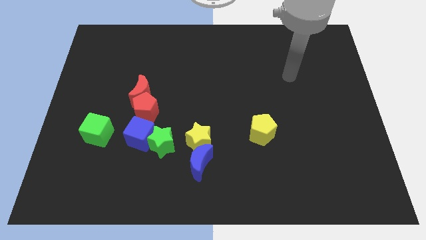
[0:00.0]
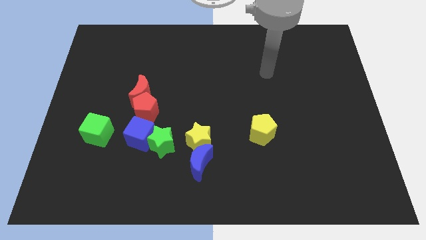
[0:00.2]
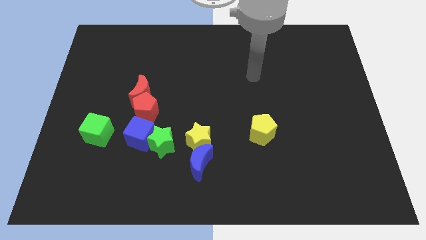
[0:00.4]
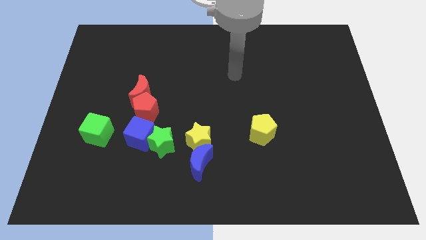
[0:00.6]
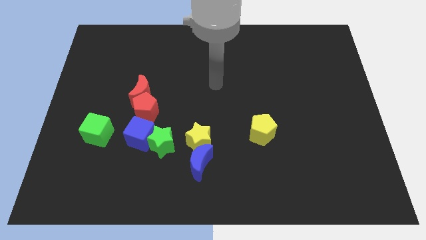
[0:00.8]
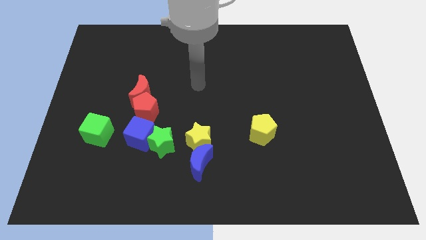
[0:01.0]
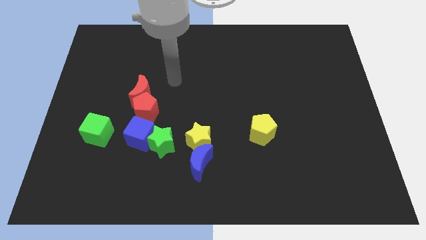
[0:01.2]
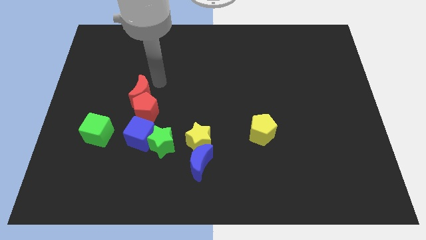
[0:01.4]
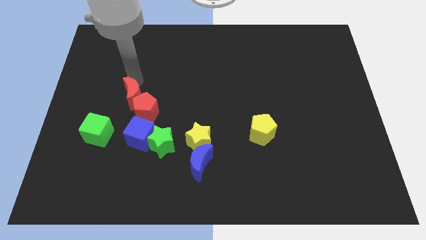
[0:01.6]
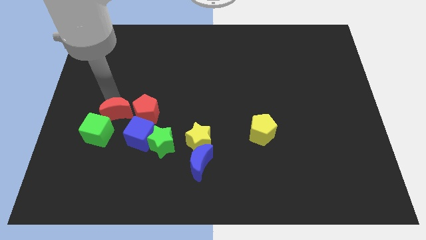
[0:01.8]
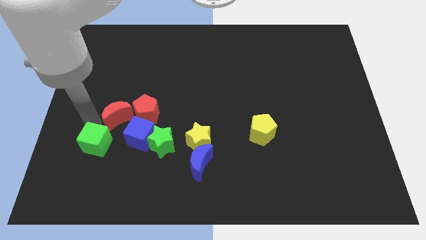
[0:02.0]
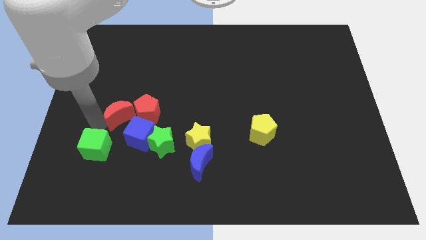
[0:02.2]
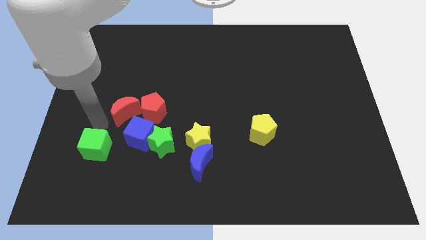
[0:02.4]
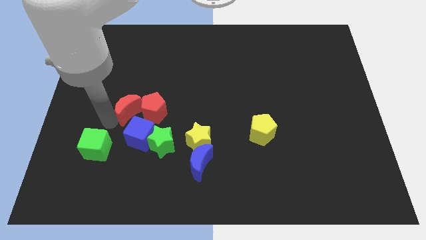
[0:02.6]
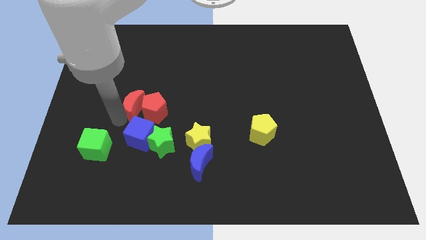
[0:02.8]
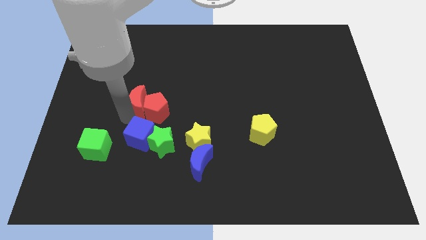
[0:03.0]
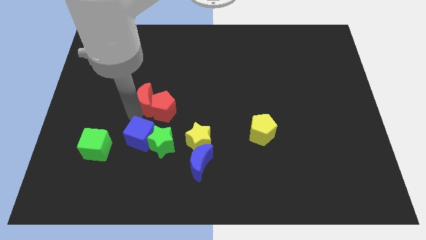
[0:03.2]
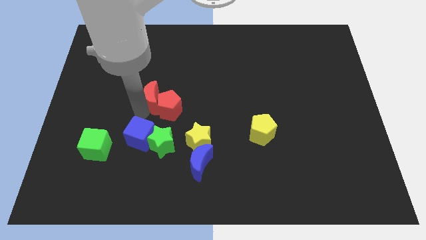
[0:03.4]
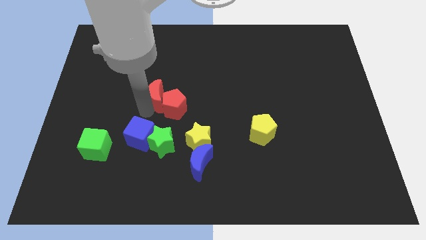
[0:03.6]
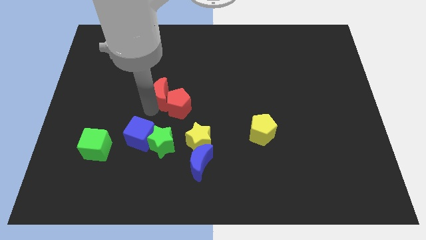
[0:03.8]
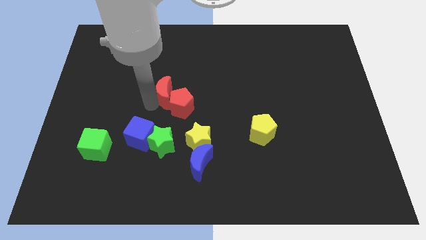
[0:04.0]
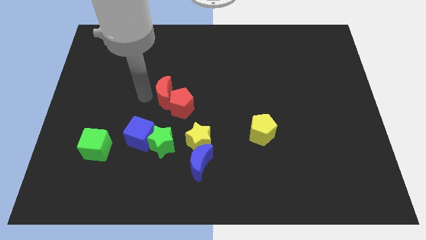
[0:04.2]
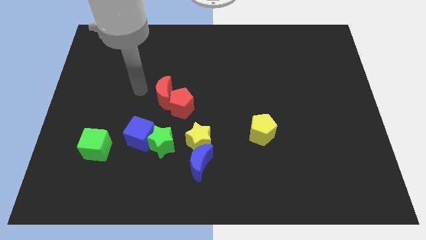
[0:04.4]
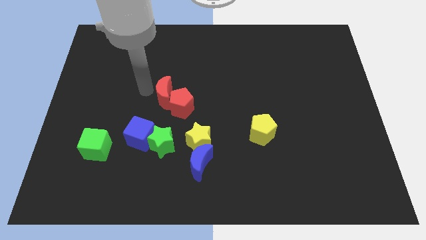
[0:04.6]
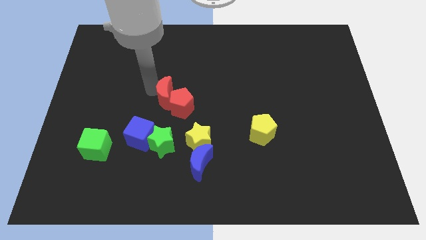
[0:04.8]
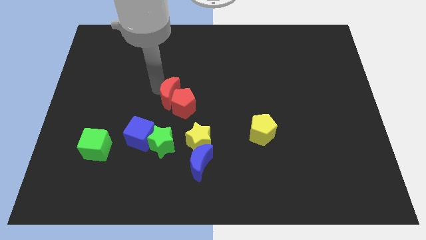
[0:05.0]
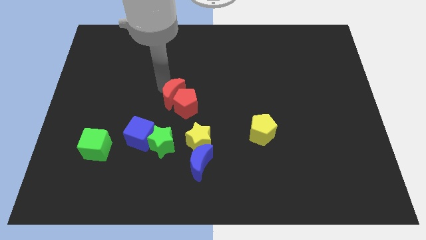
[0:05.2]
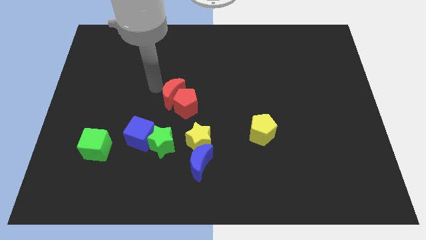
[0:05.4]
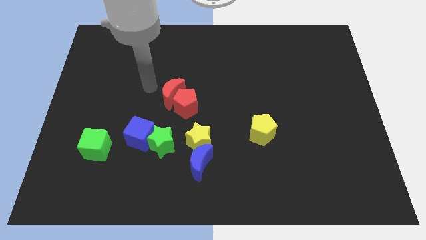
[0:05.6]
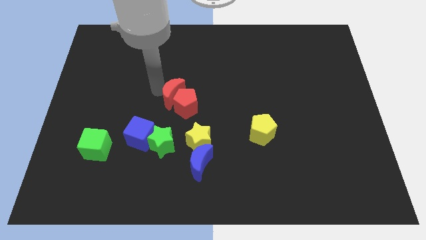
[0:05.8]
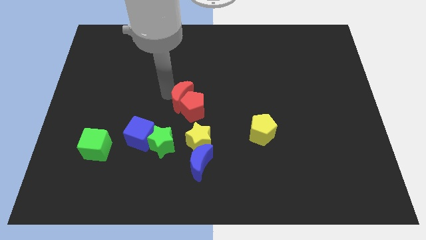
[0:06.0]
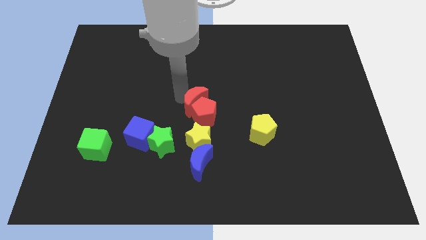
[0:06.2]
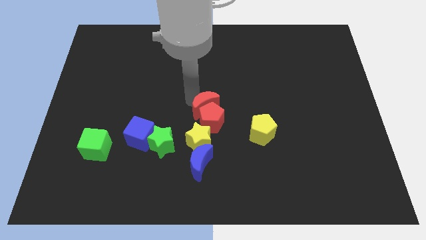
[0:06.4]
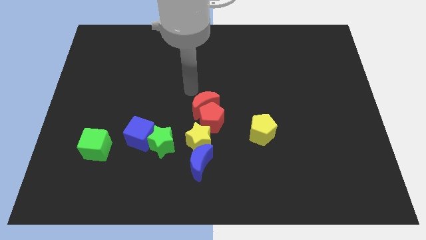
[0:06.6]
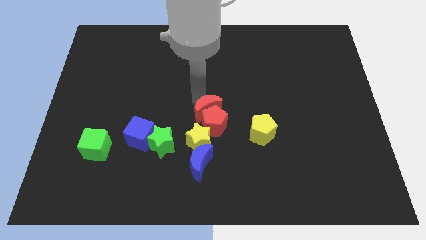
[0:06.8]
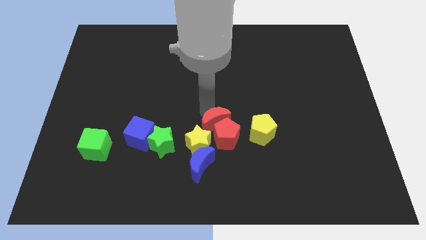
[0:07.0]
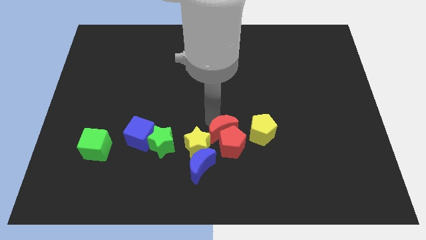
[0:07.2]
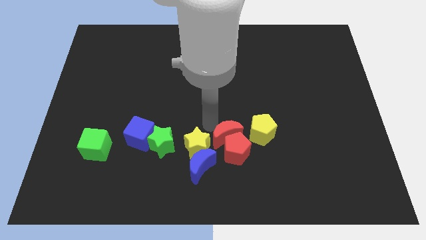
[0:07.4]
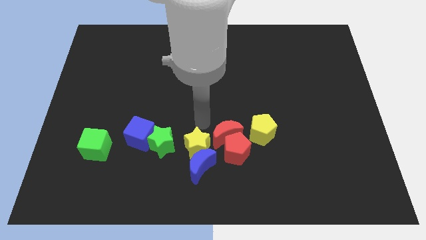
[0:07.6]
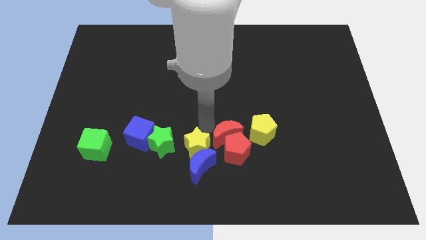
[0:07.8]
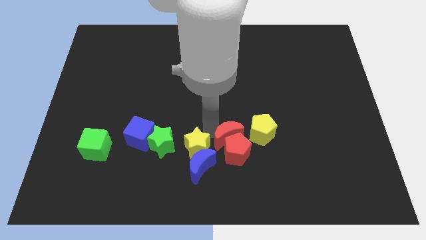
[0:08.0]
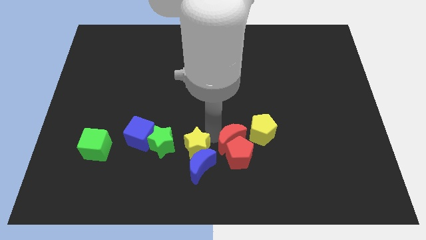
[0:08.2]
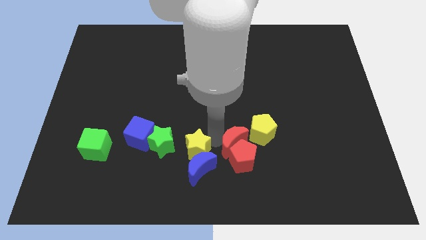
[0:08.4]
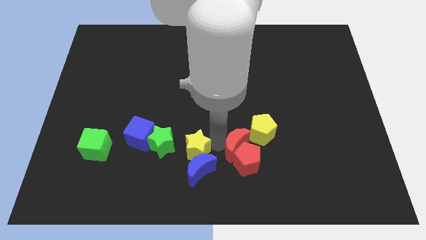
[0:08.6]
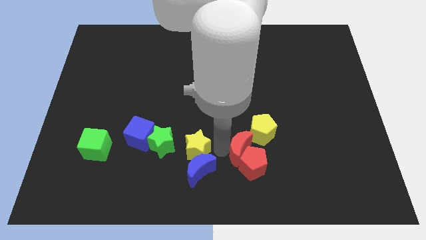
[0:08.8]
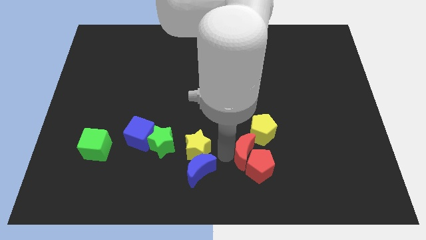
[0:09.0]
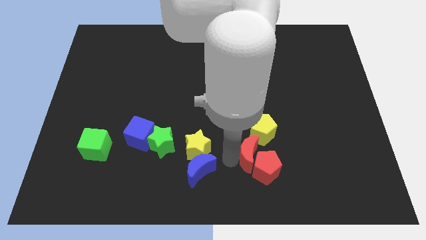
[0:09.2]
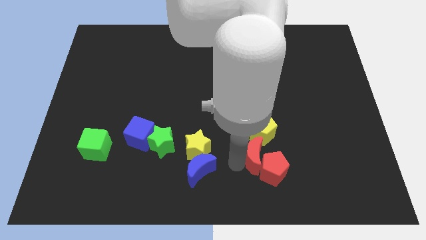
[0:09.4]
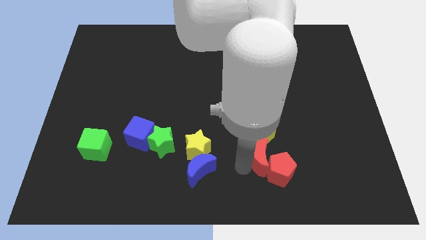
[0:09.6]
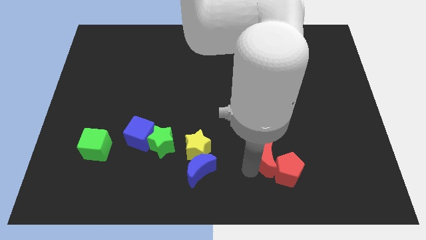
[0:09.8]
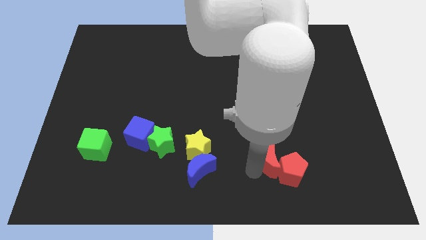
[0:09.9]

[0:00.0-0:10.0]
slide the red moon to the bottom right side of the yellow pentagon

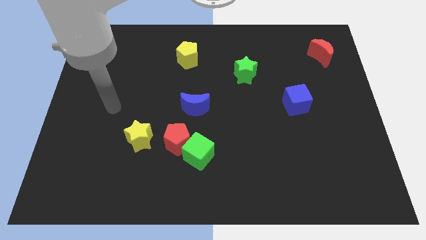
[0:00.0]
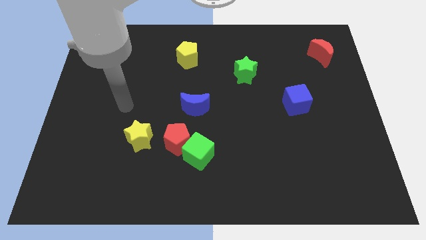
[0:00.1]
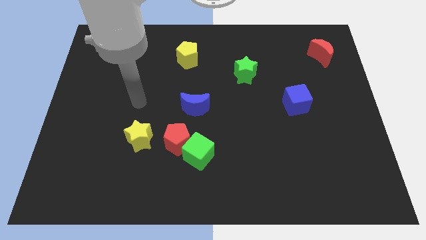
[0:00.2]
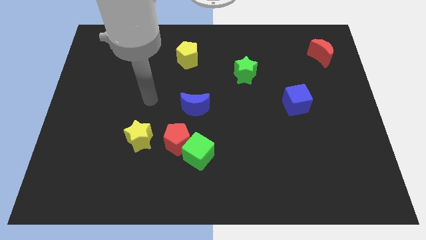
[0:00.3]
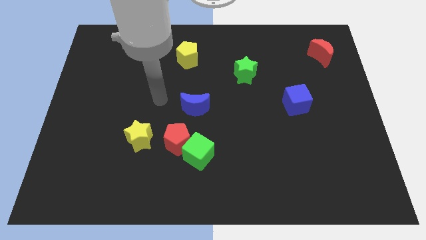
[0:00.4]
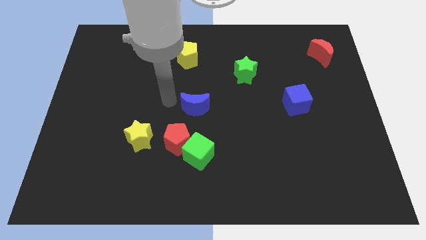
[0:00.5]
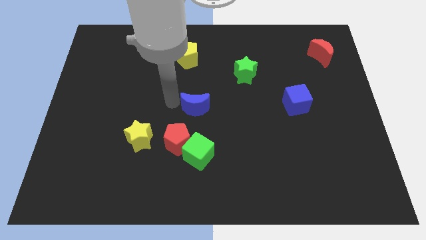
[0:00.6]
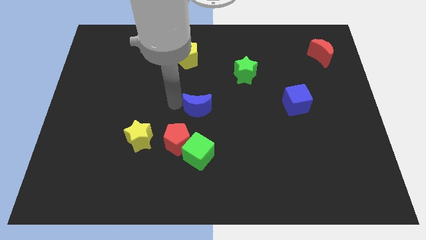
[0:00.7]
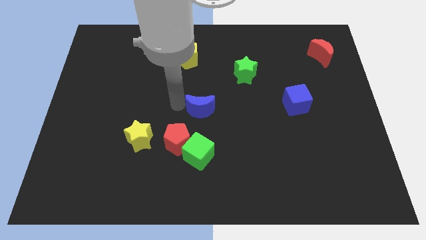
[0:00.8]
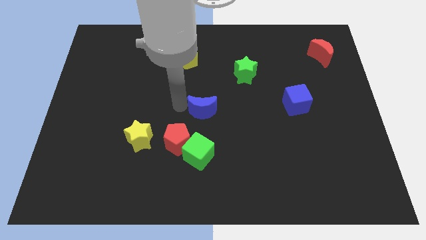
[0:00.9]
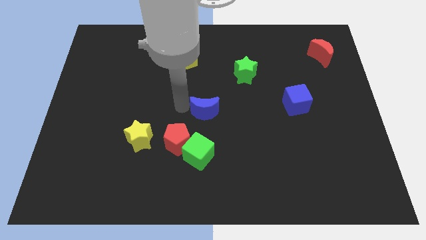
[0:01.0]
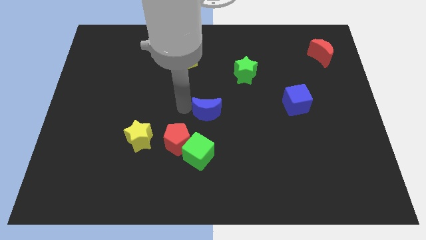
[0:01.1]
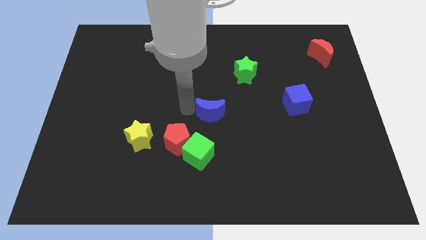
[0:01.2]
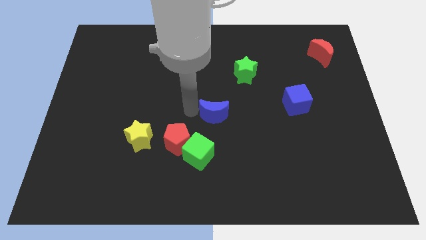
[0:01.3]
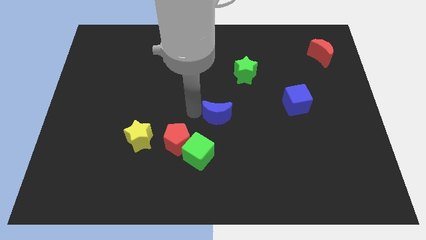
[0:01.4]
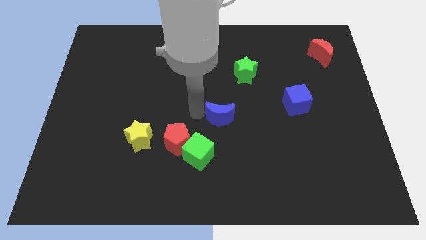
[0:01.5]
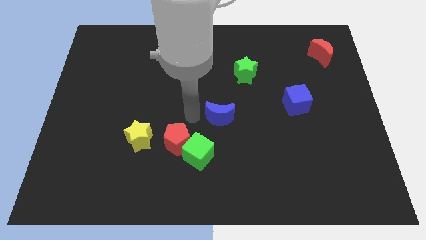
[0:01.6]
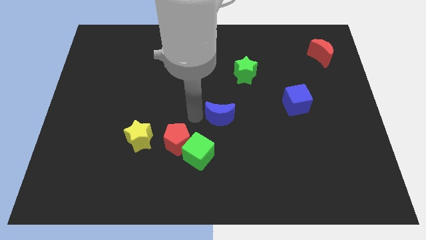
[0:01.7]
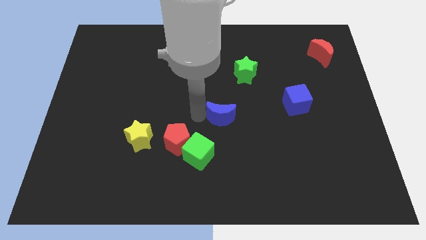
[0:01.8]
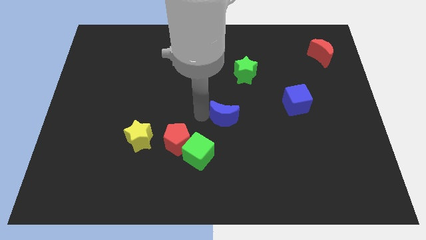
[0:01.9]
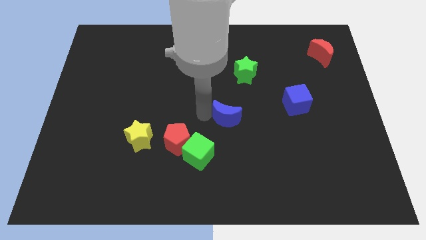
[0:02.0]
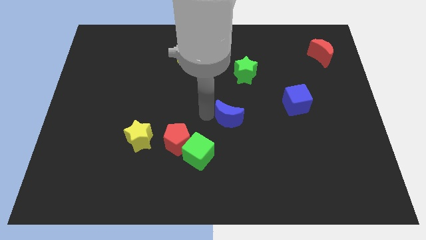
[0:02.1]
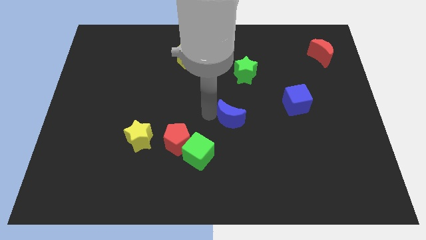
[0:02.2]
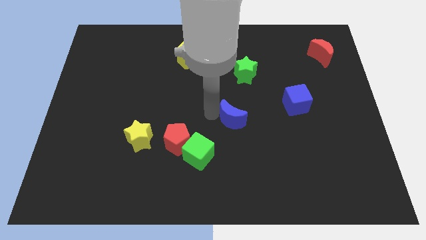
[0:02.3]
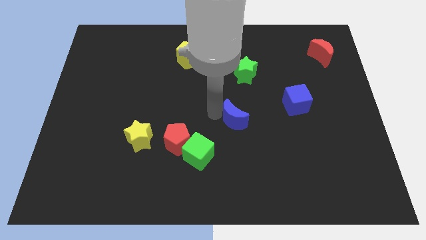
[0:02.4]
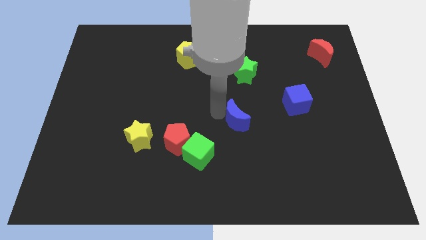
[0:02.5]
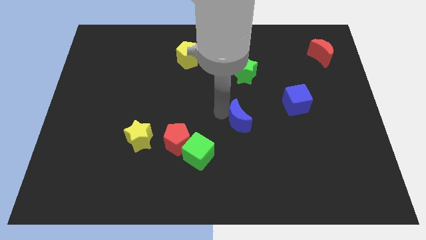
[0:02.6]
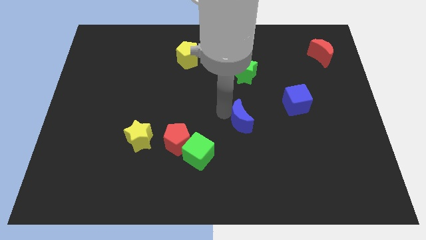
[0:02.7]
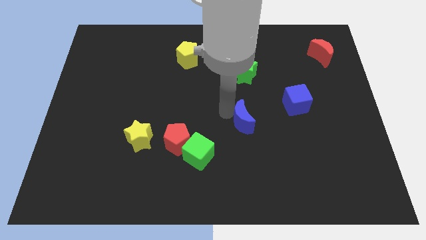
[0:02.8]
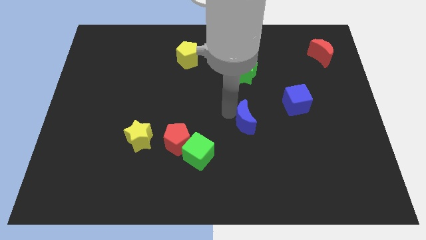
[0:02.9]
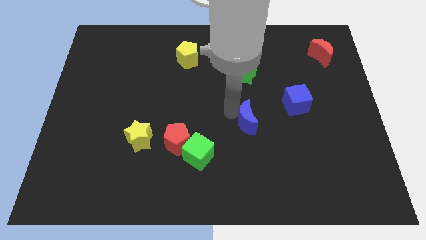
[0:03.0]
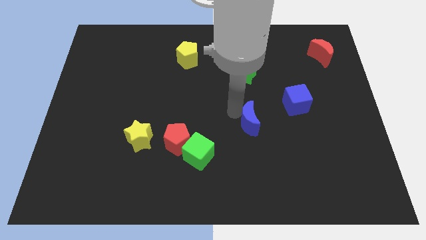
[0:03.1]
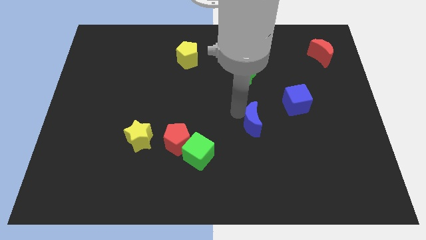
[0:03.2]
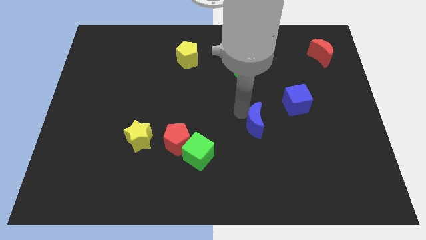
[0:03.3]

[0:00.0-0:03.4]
push the blue moon to the bottom left side of the blue cube
